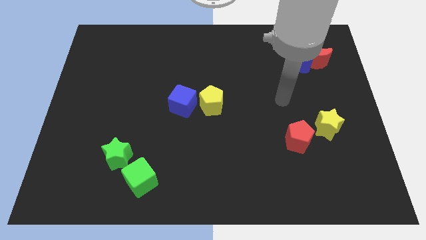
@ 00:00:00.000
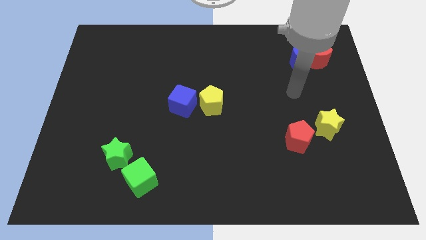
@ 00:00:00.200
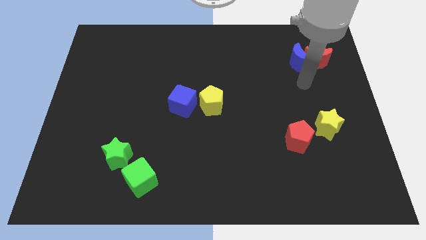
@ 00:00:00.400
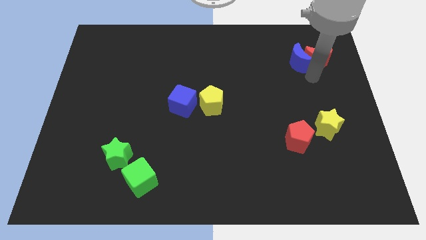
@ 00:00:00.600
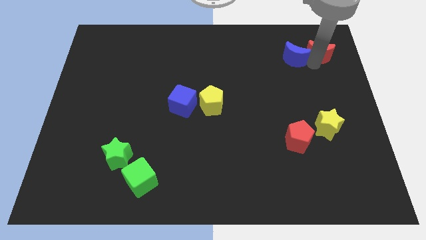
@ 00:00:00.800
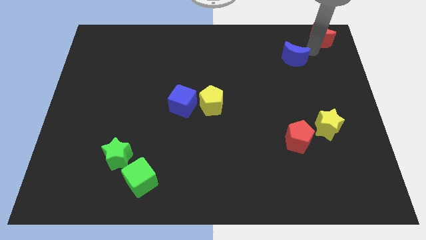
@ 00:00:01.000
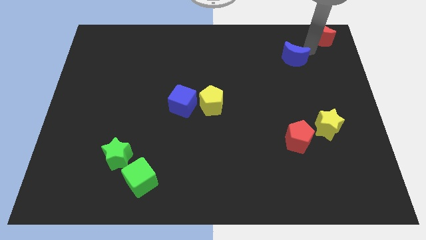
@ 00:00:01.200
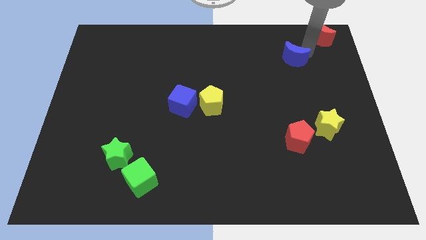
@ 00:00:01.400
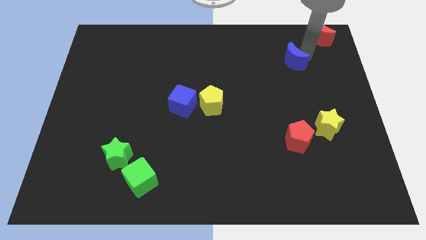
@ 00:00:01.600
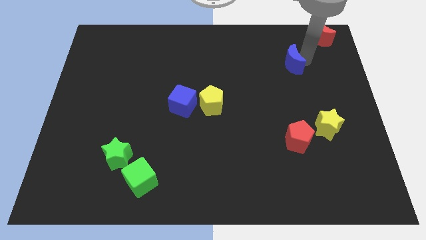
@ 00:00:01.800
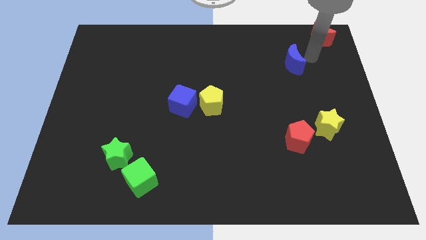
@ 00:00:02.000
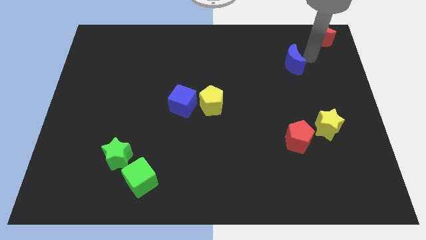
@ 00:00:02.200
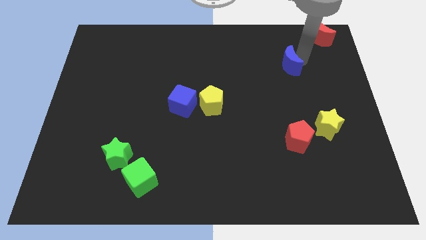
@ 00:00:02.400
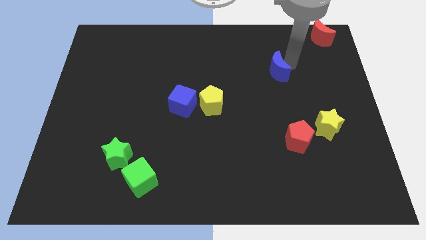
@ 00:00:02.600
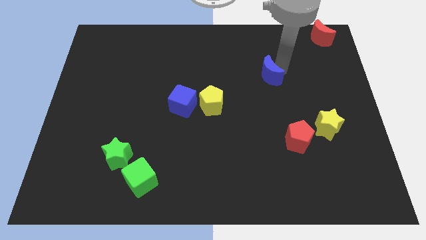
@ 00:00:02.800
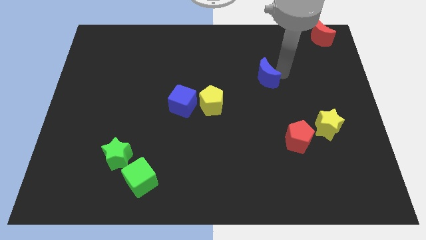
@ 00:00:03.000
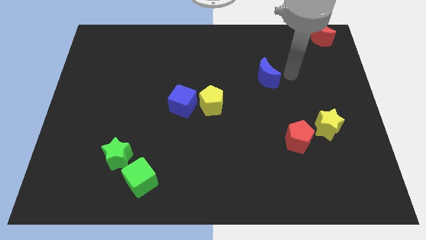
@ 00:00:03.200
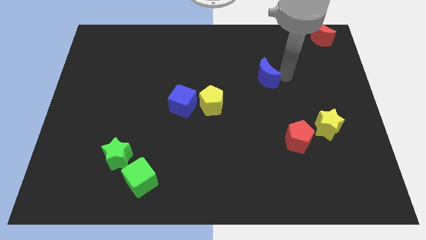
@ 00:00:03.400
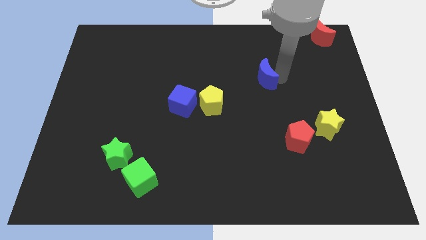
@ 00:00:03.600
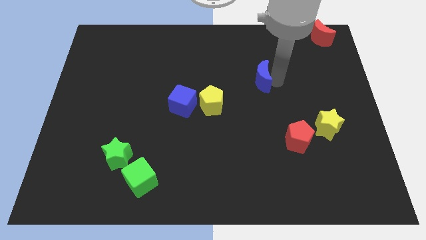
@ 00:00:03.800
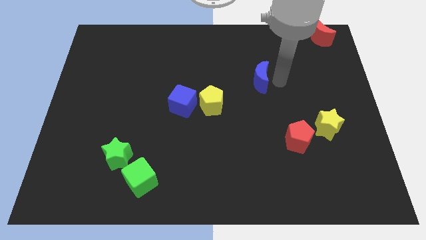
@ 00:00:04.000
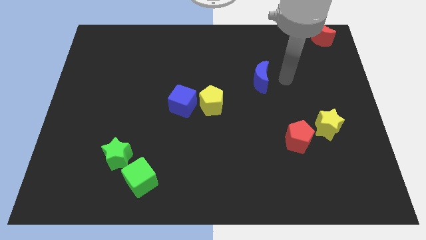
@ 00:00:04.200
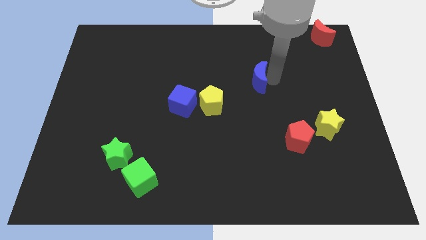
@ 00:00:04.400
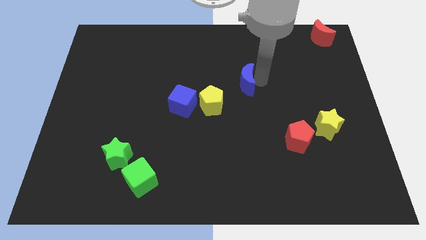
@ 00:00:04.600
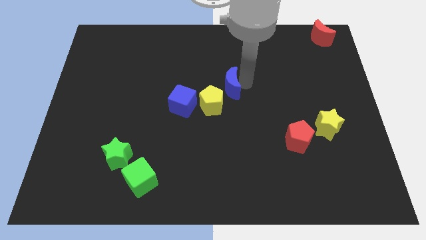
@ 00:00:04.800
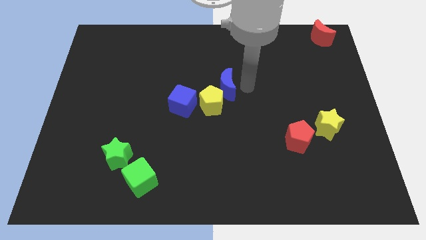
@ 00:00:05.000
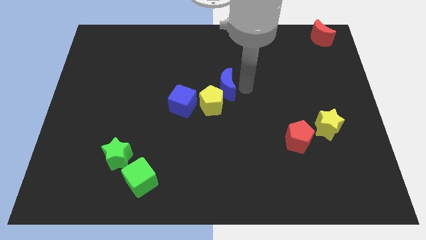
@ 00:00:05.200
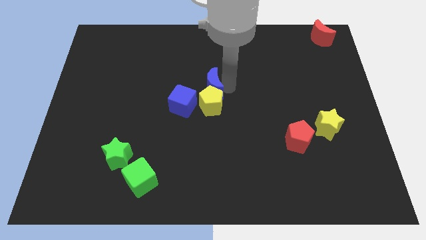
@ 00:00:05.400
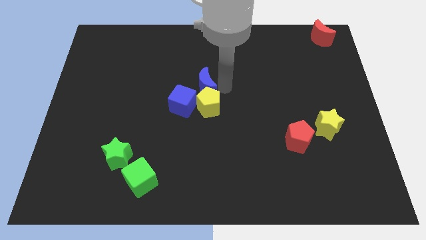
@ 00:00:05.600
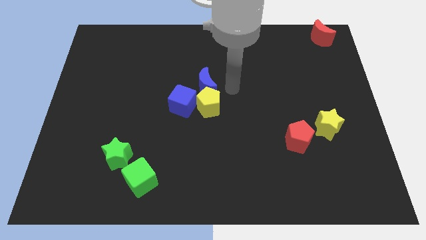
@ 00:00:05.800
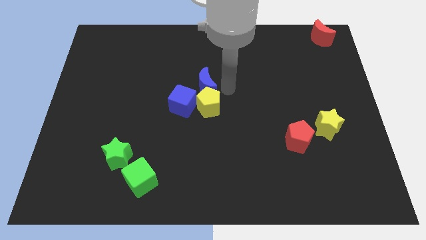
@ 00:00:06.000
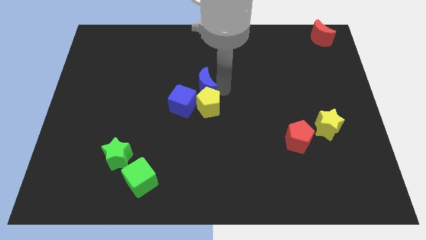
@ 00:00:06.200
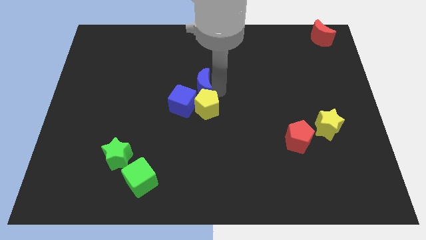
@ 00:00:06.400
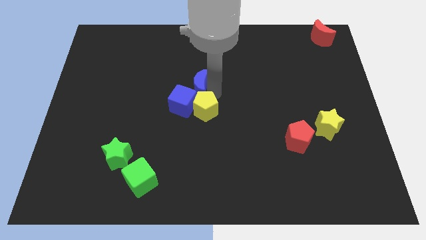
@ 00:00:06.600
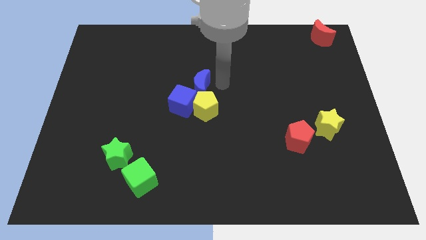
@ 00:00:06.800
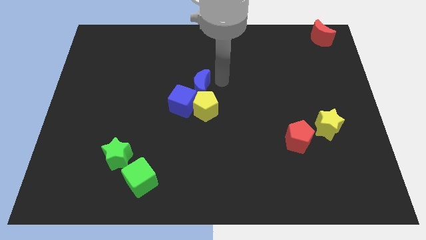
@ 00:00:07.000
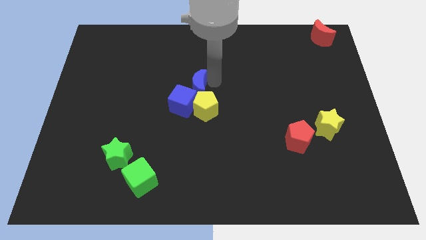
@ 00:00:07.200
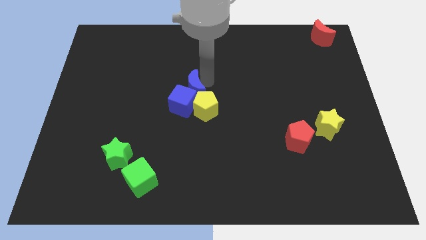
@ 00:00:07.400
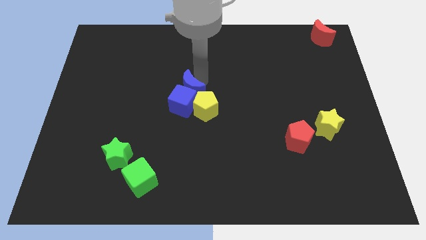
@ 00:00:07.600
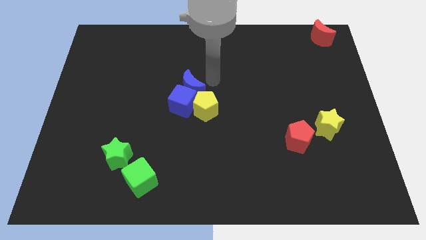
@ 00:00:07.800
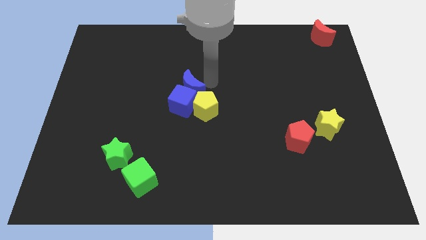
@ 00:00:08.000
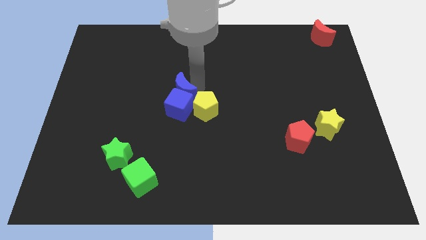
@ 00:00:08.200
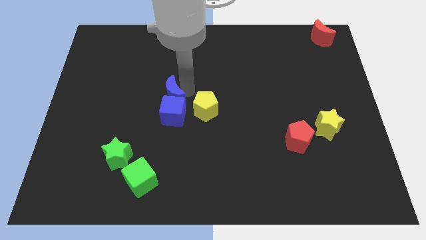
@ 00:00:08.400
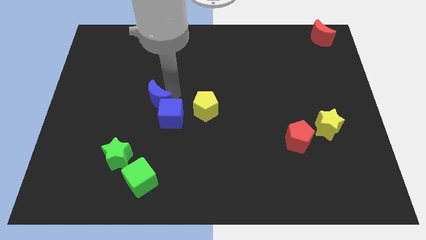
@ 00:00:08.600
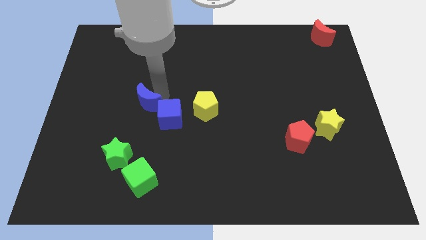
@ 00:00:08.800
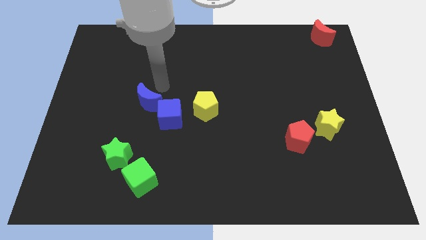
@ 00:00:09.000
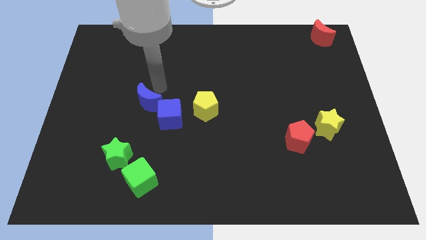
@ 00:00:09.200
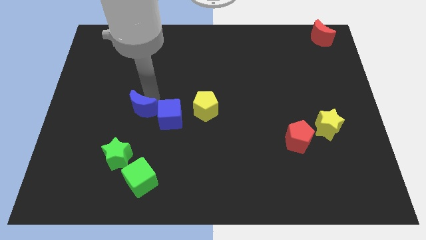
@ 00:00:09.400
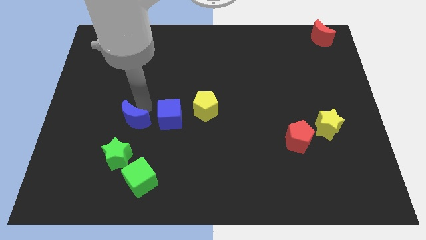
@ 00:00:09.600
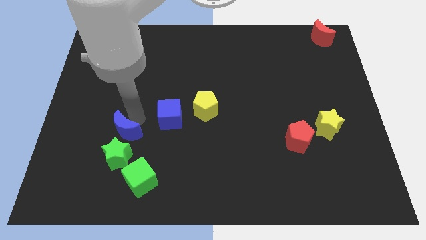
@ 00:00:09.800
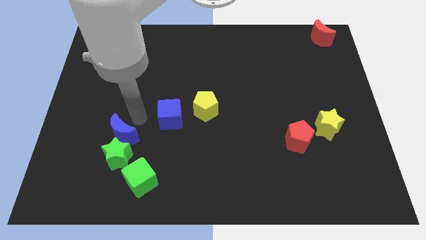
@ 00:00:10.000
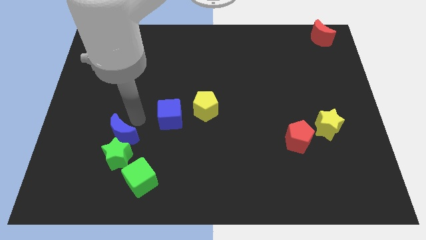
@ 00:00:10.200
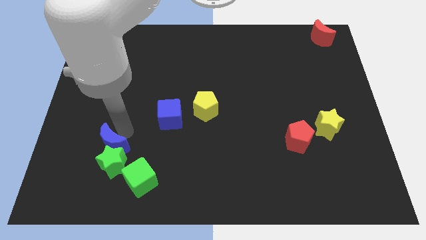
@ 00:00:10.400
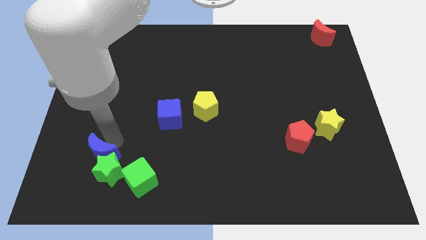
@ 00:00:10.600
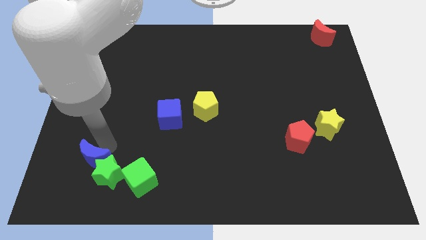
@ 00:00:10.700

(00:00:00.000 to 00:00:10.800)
move the blue moon left of the green cube
